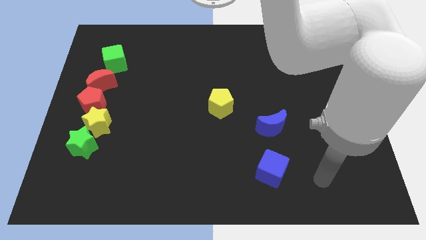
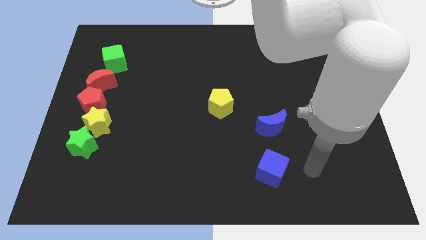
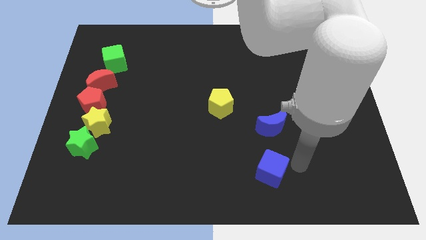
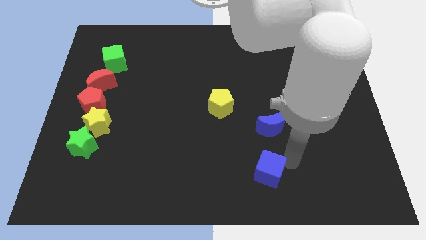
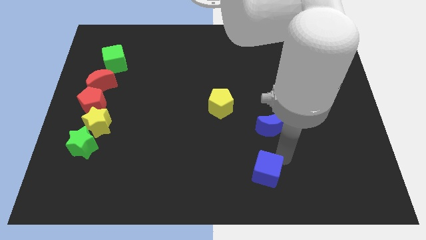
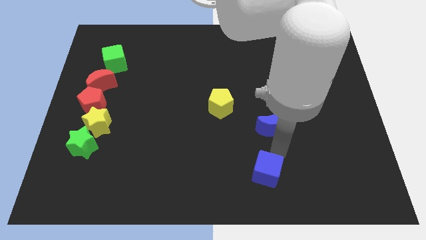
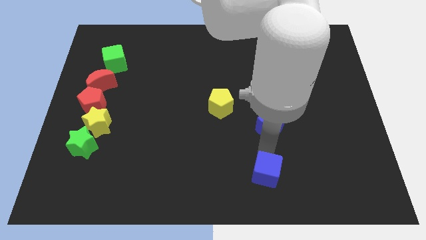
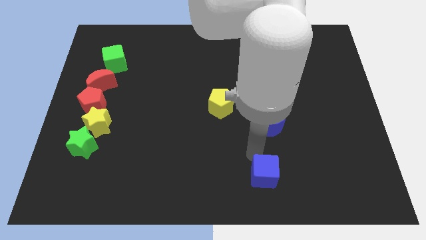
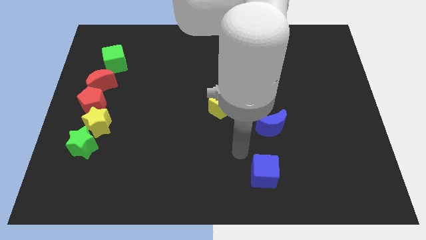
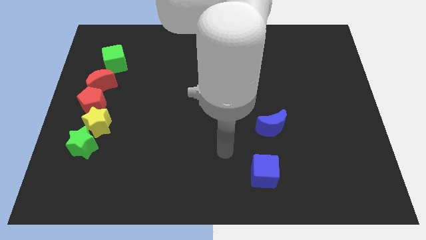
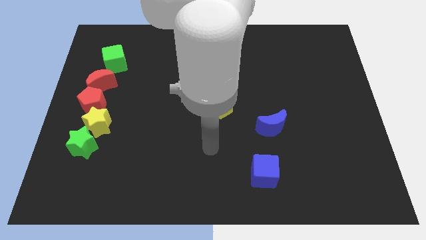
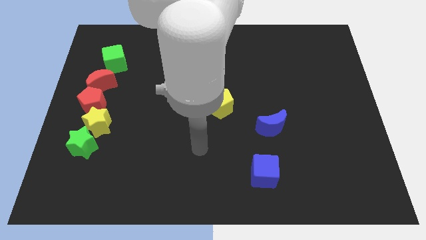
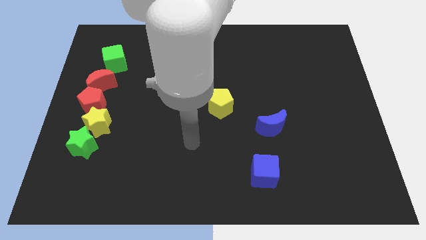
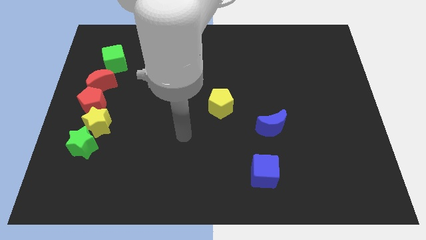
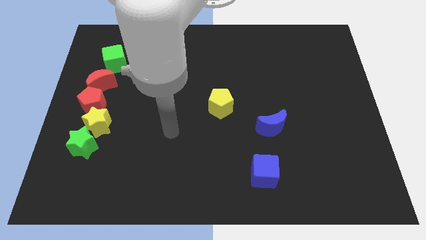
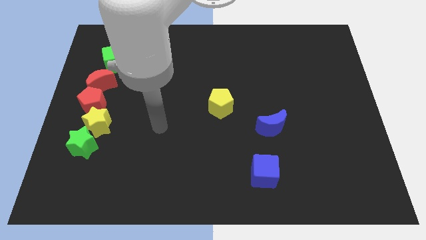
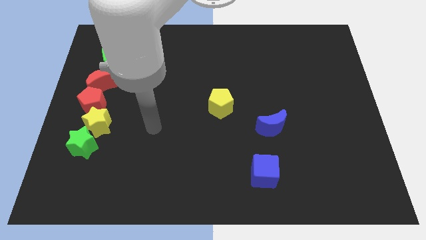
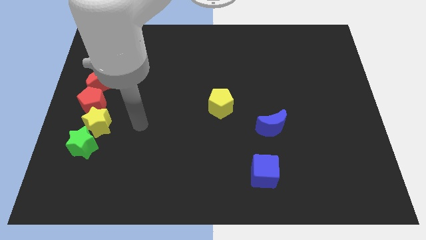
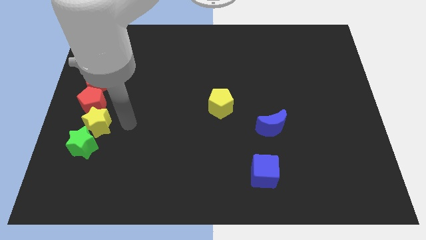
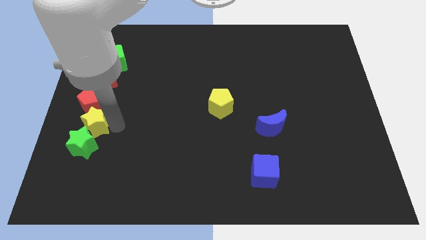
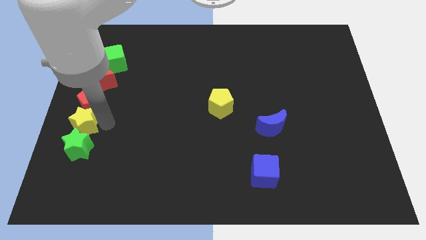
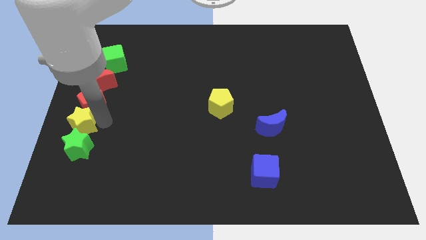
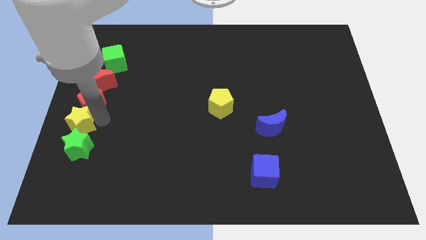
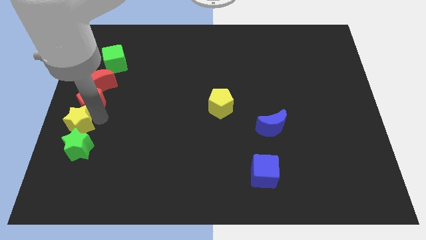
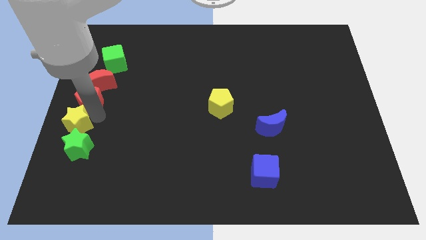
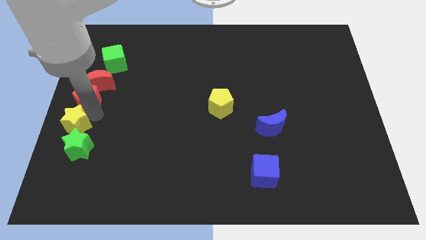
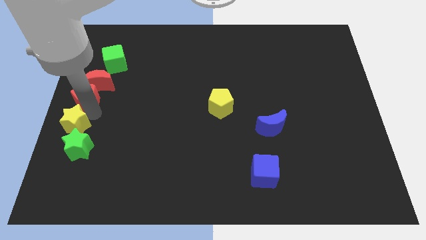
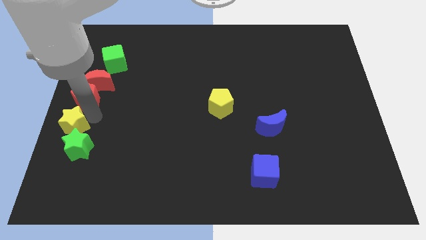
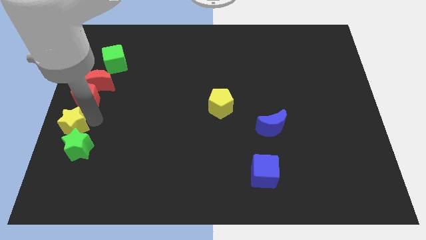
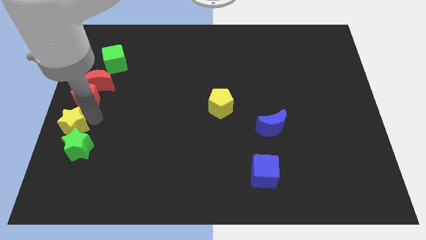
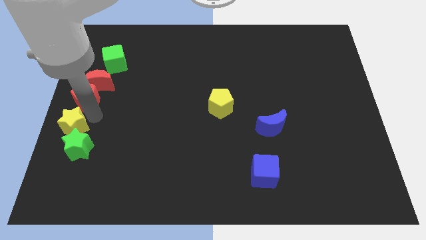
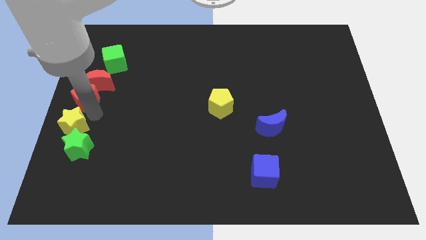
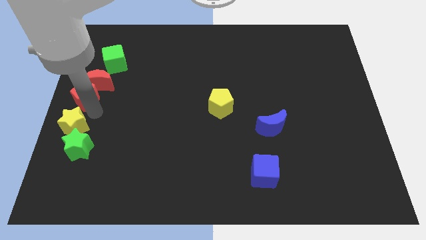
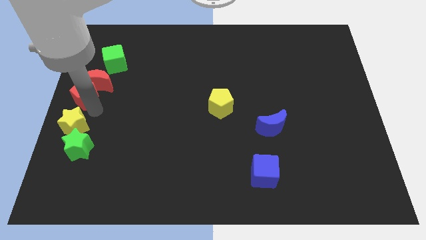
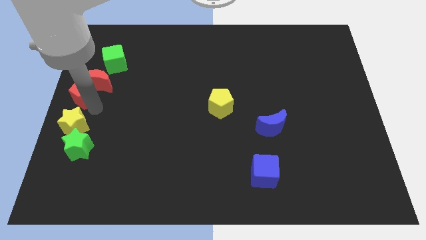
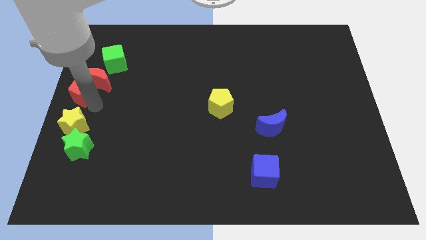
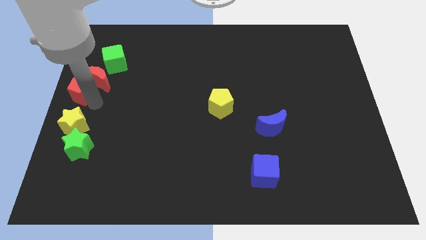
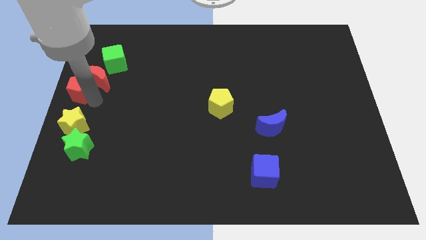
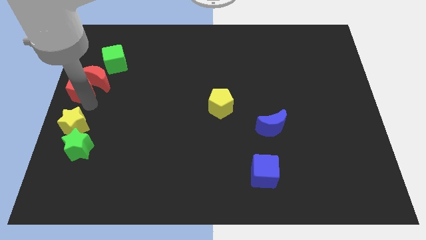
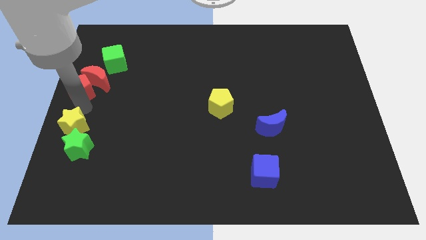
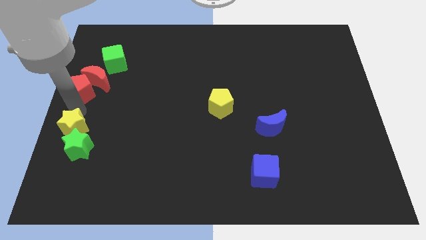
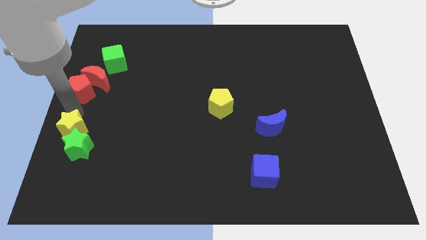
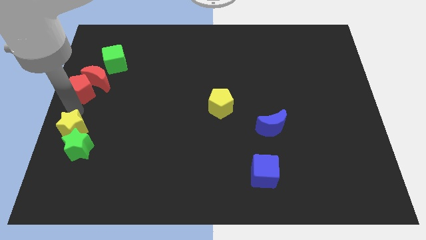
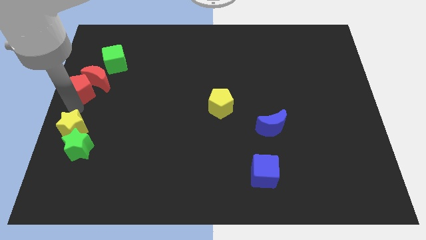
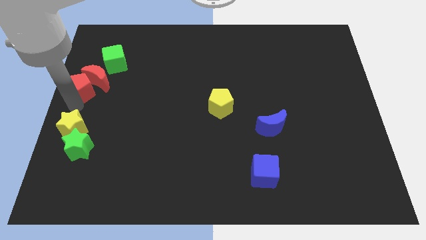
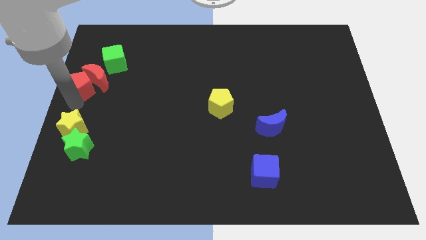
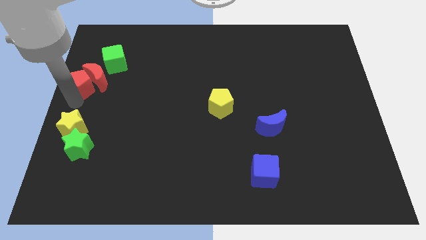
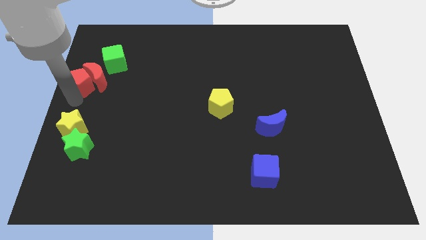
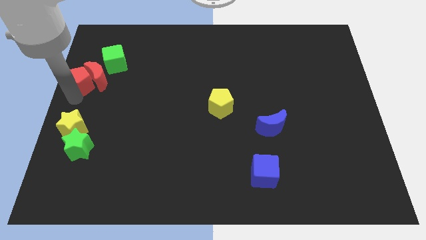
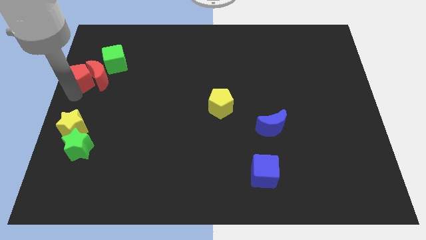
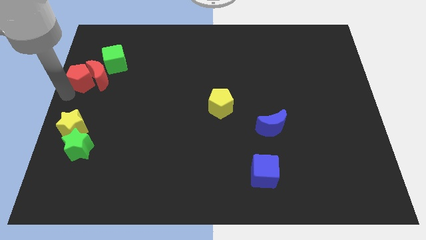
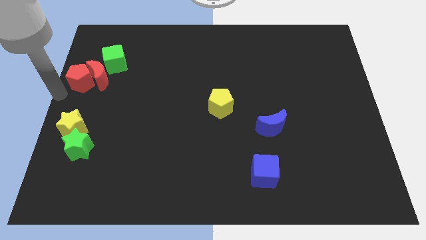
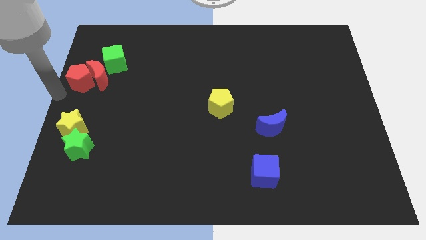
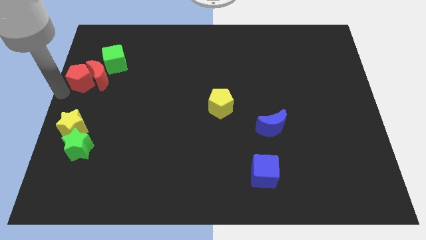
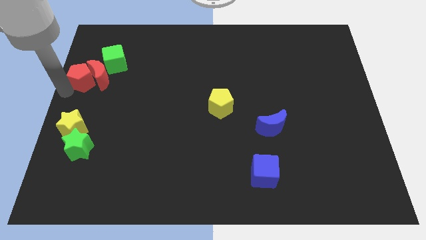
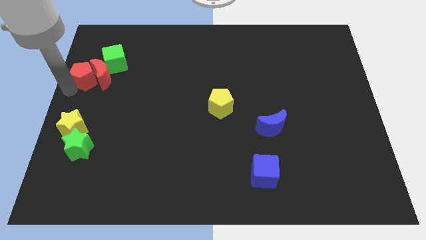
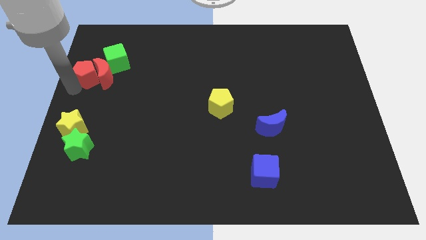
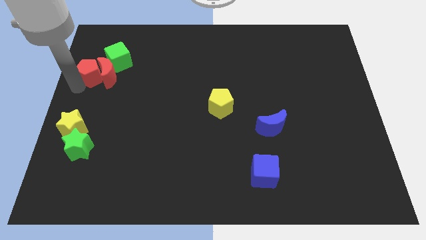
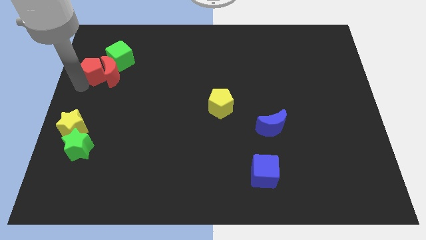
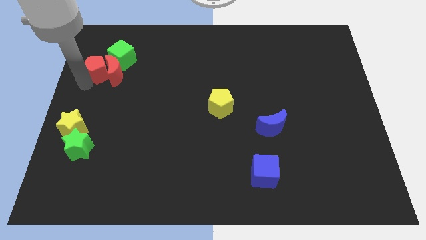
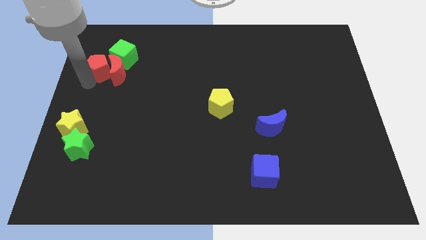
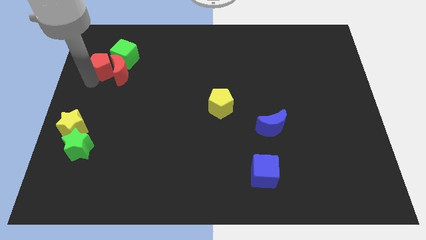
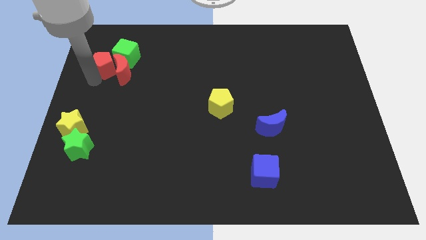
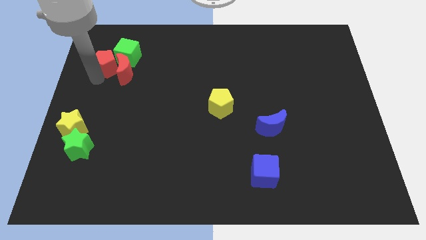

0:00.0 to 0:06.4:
slide the red pentagon to the green cube

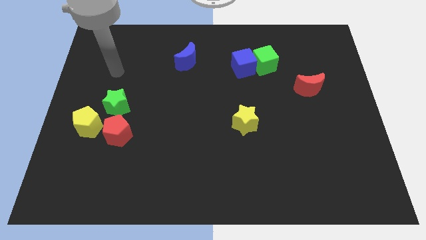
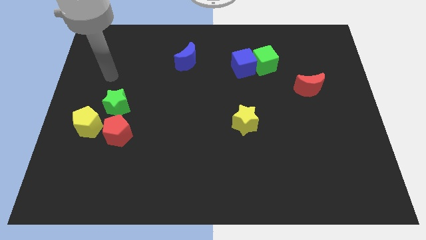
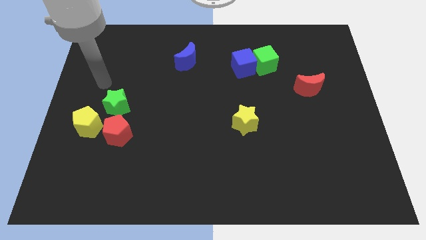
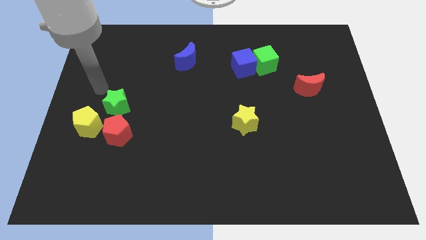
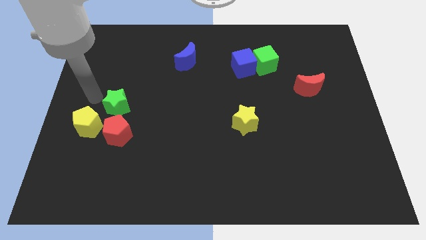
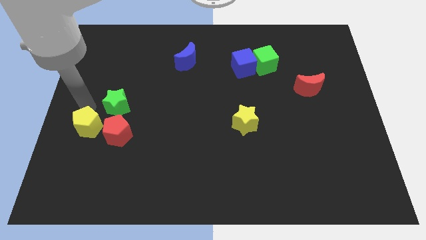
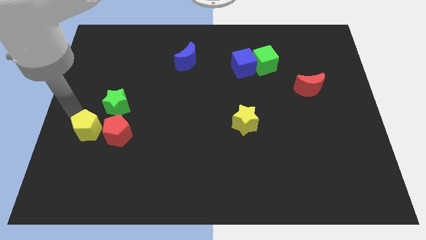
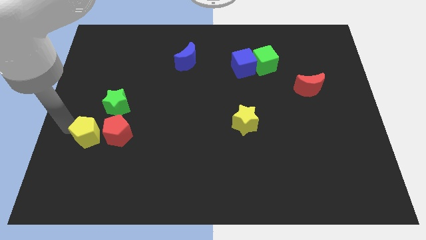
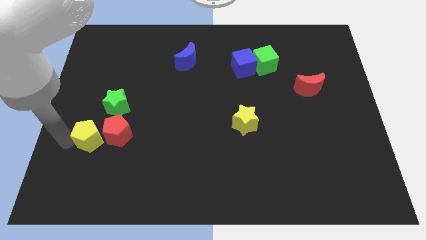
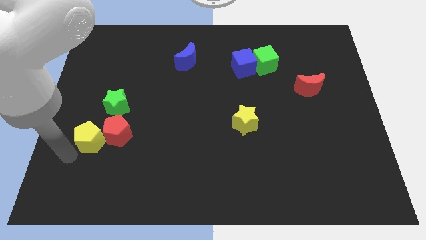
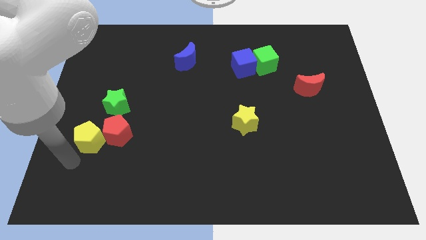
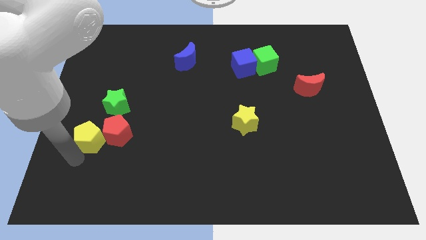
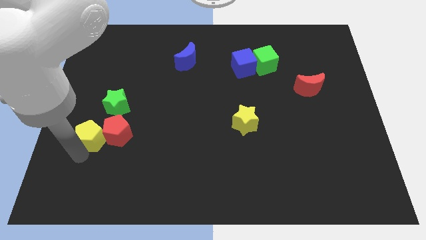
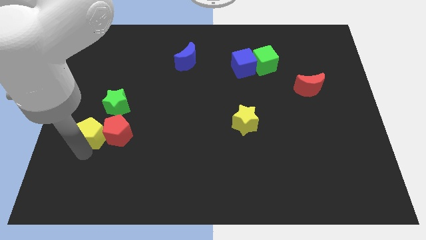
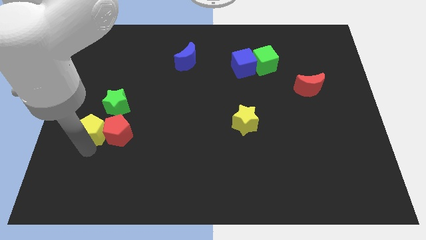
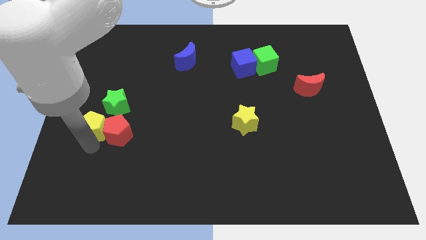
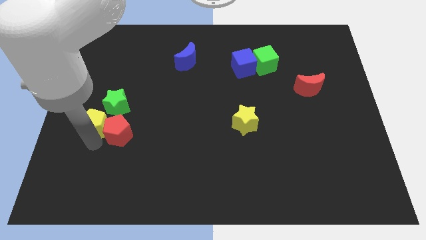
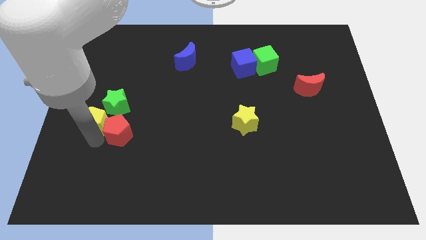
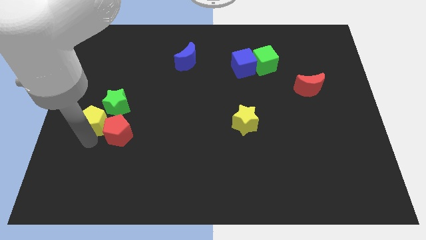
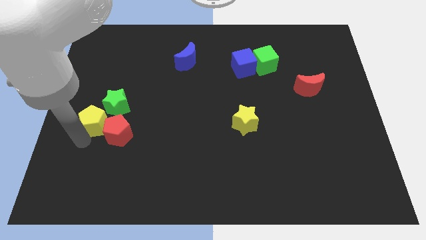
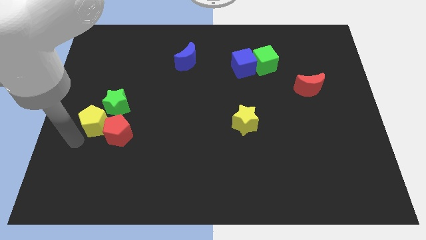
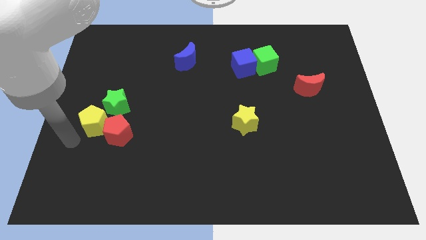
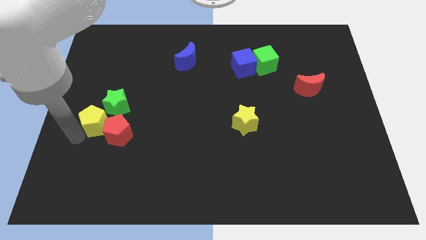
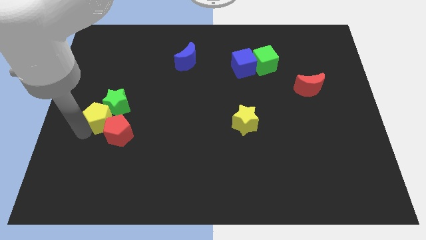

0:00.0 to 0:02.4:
slide the yellow pentagon next to the green star
